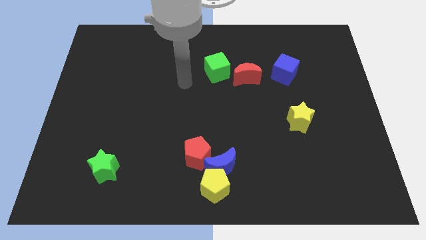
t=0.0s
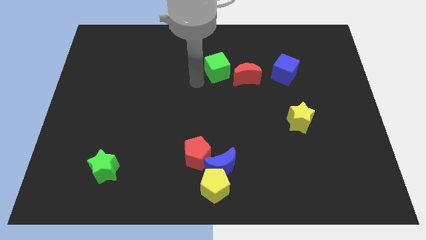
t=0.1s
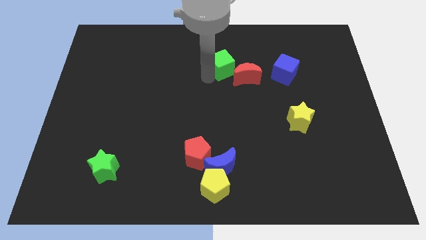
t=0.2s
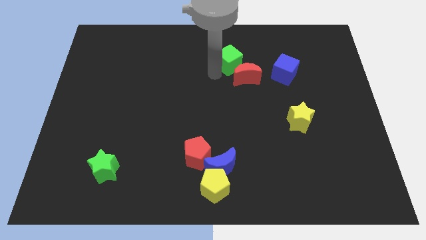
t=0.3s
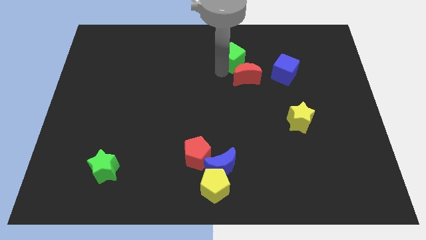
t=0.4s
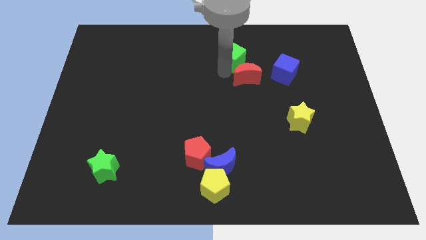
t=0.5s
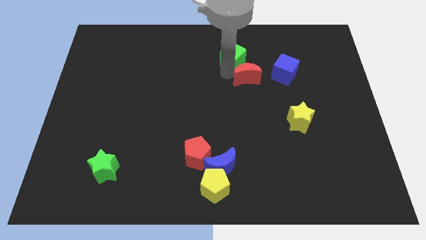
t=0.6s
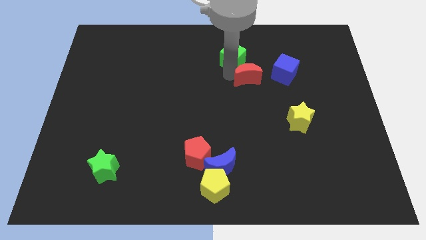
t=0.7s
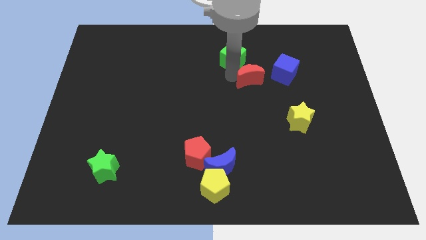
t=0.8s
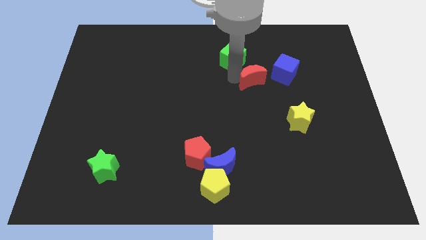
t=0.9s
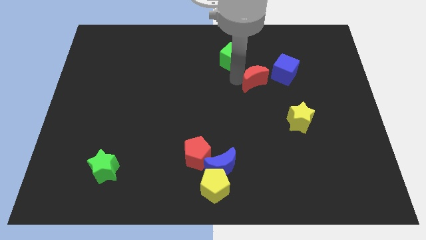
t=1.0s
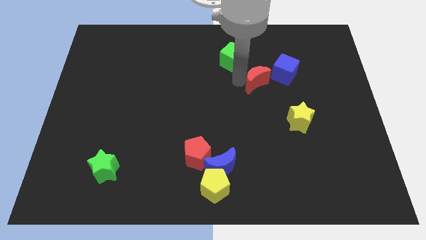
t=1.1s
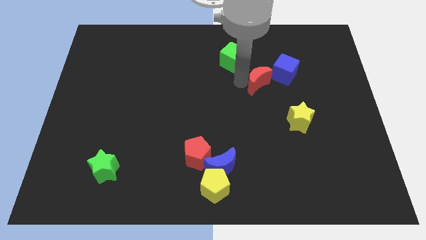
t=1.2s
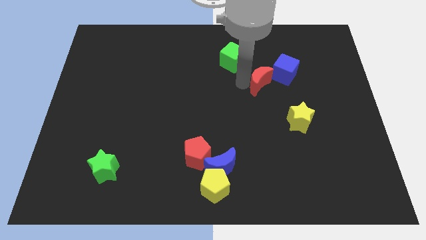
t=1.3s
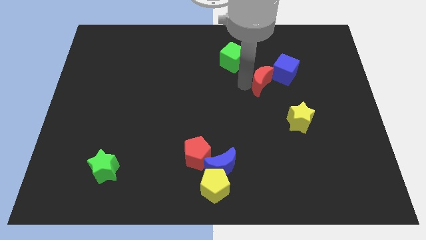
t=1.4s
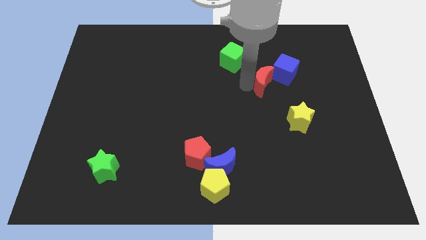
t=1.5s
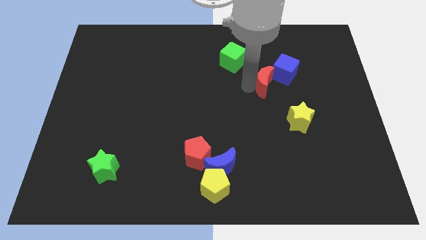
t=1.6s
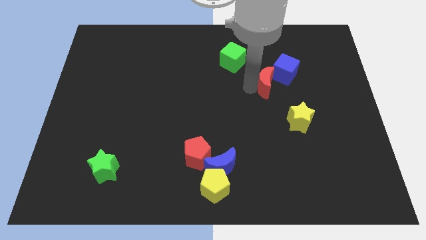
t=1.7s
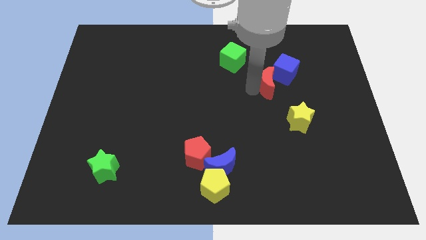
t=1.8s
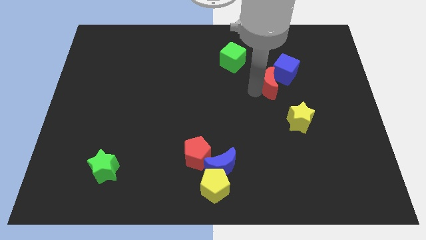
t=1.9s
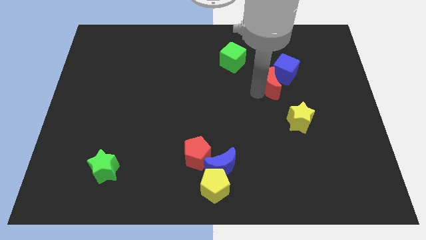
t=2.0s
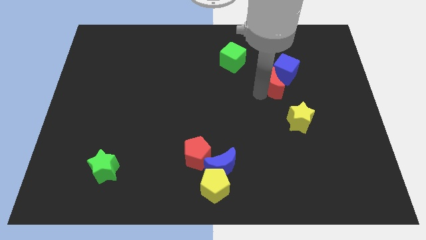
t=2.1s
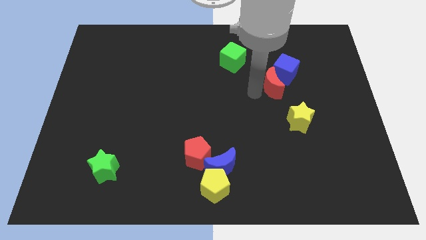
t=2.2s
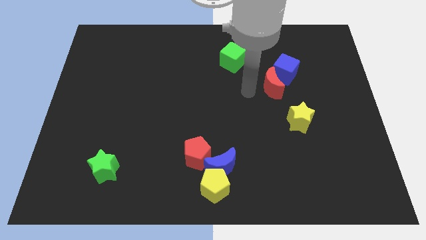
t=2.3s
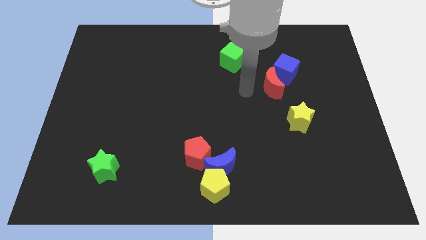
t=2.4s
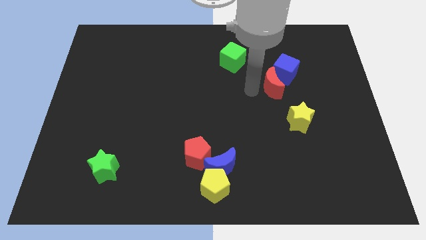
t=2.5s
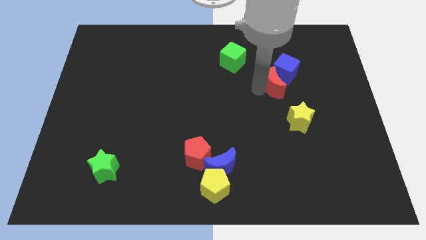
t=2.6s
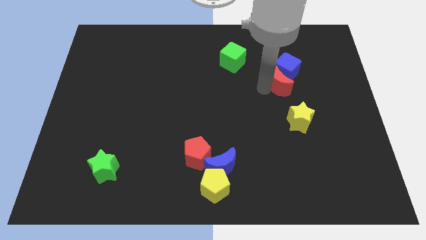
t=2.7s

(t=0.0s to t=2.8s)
slightly slide the red moon right

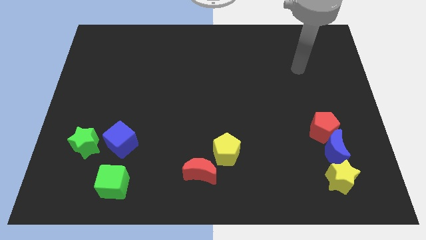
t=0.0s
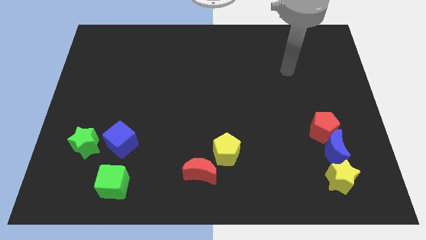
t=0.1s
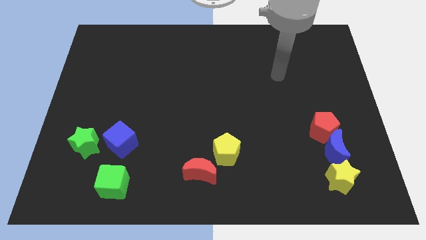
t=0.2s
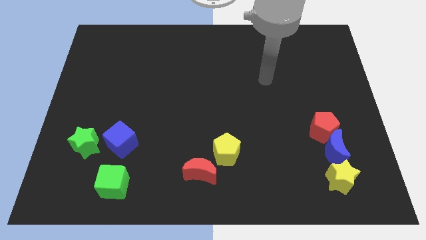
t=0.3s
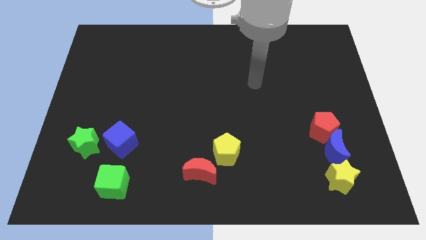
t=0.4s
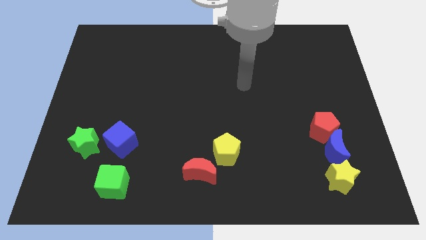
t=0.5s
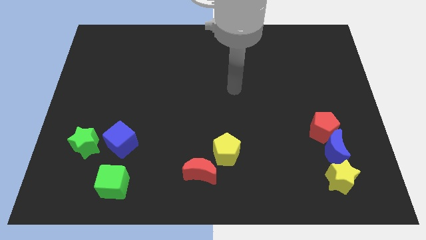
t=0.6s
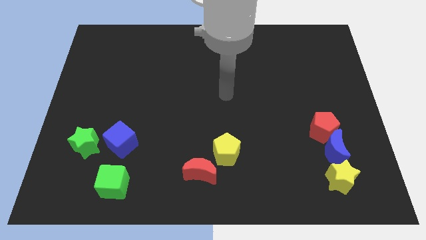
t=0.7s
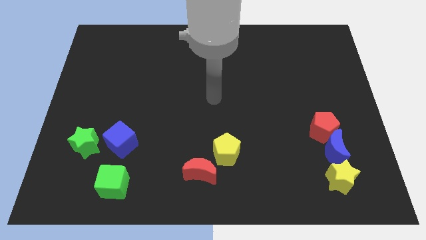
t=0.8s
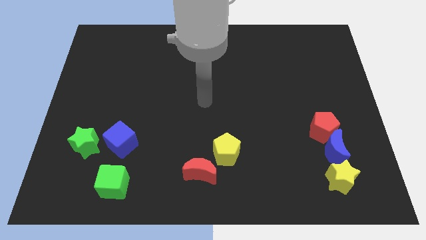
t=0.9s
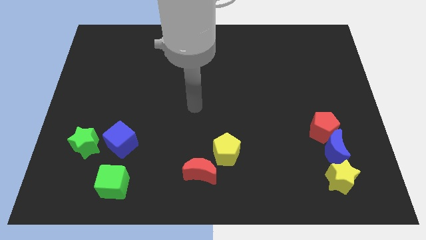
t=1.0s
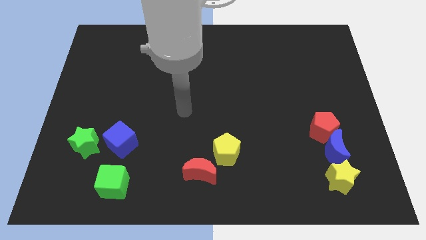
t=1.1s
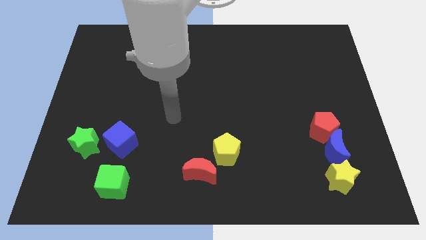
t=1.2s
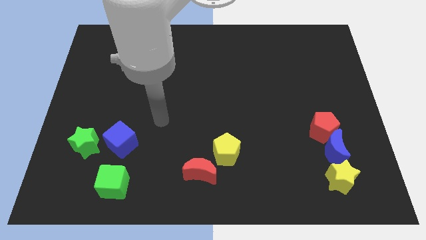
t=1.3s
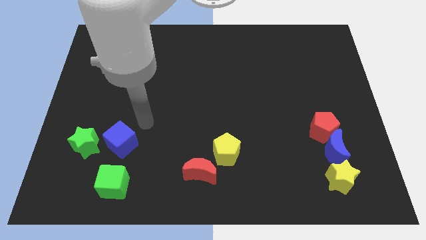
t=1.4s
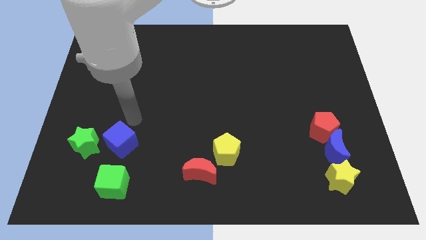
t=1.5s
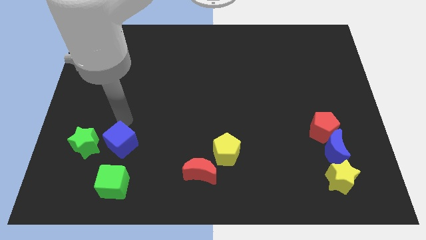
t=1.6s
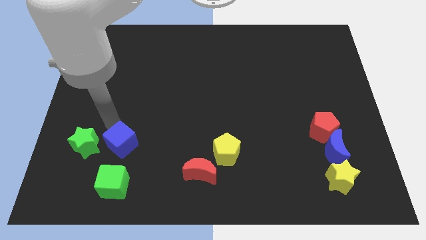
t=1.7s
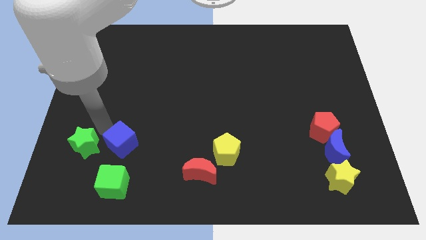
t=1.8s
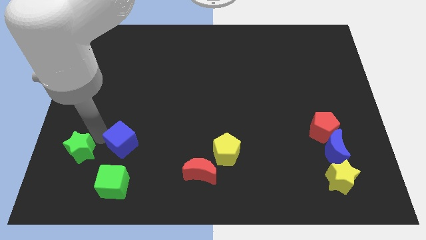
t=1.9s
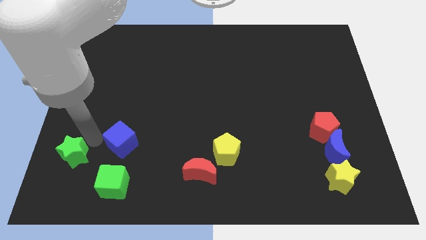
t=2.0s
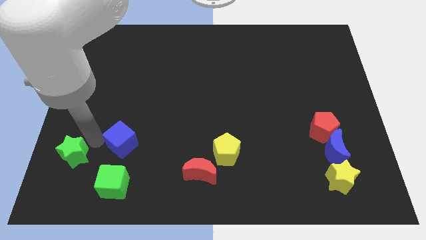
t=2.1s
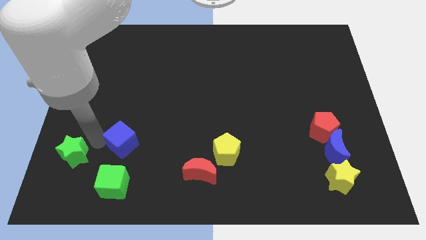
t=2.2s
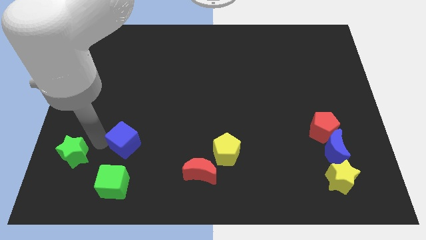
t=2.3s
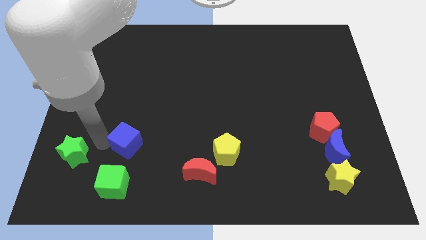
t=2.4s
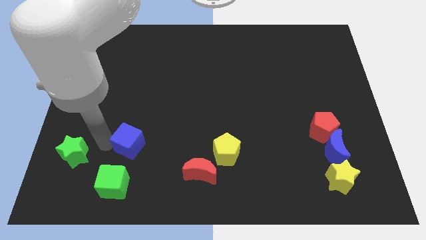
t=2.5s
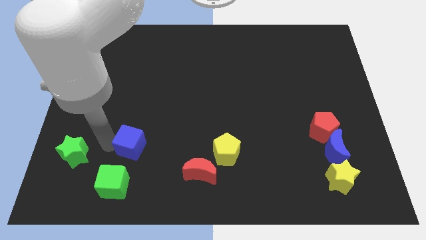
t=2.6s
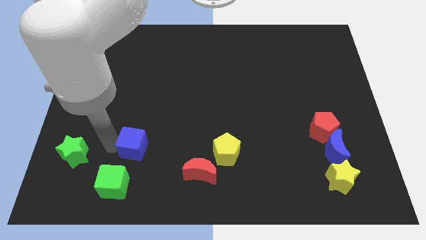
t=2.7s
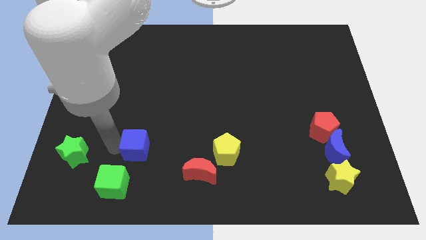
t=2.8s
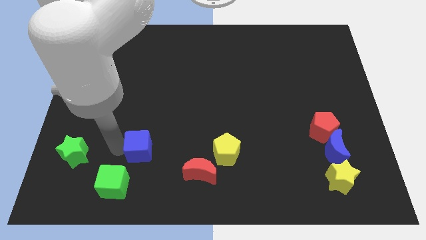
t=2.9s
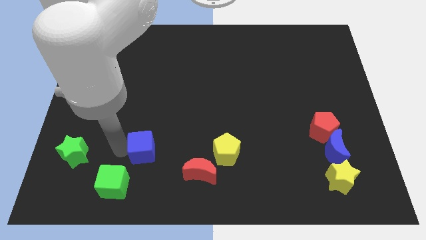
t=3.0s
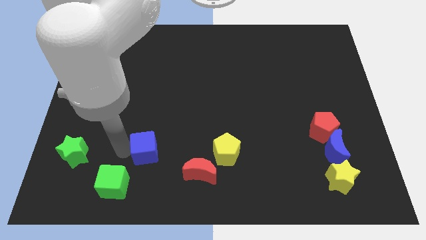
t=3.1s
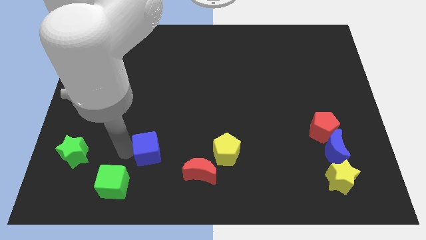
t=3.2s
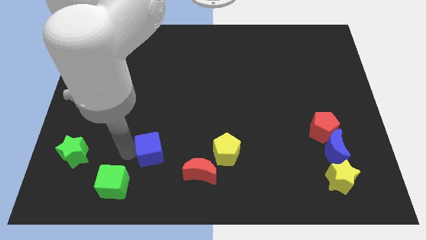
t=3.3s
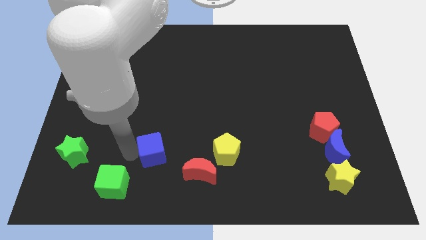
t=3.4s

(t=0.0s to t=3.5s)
move the blue cube to the right a bit

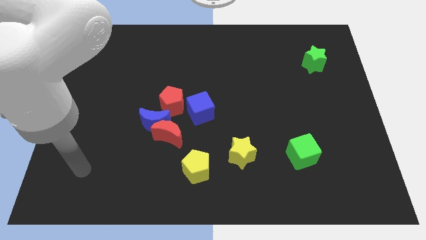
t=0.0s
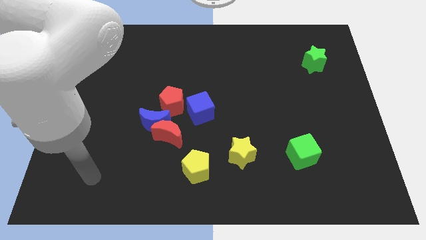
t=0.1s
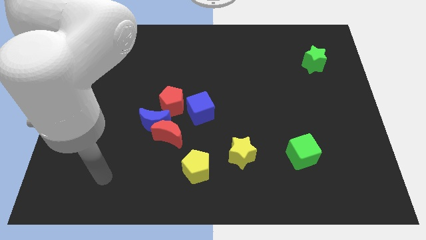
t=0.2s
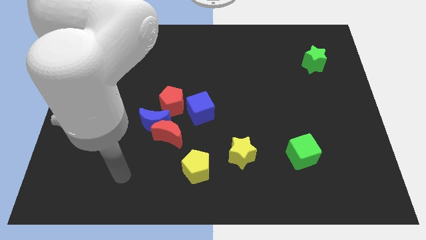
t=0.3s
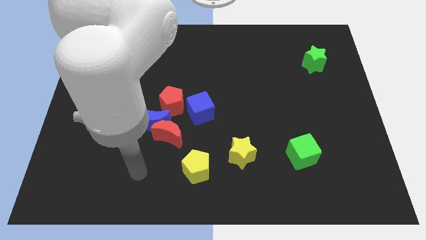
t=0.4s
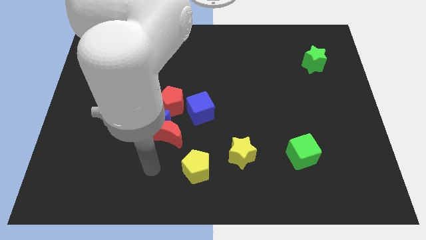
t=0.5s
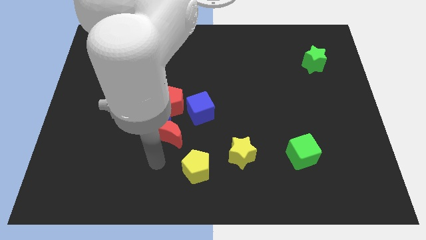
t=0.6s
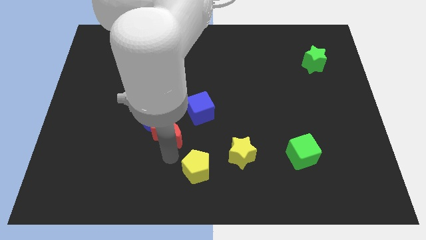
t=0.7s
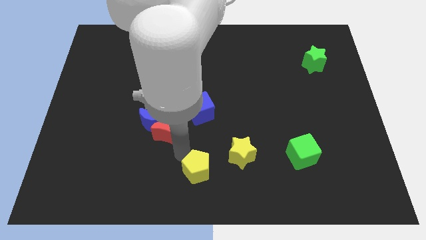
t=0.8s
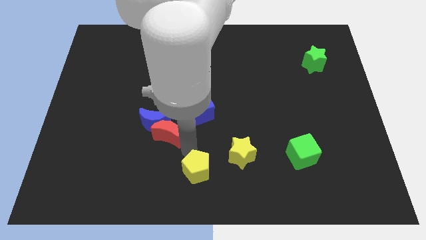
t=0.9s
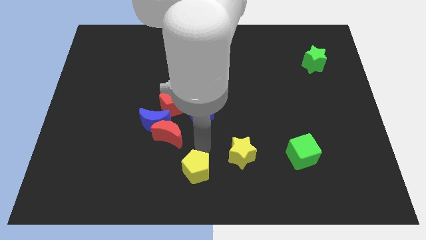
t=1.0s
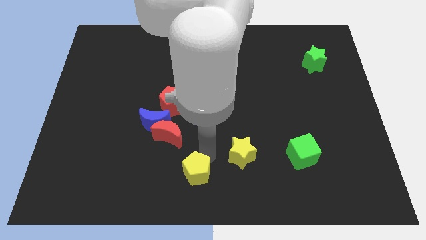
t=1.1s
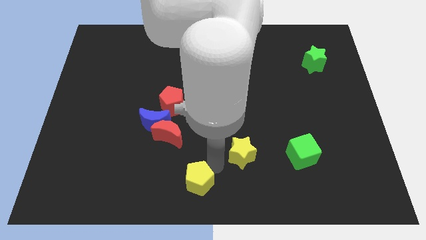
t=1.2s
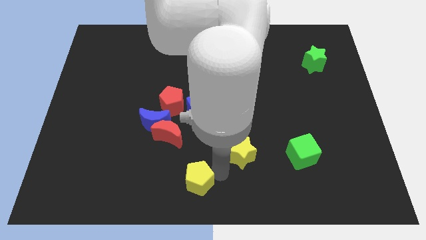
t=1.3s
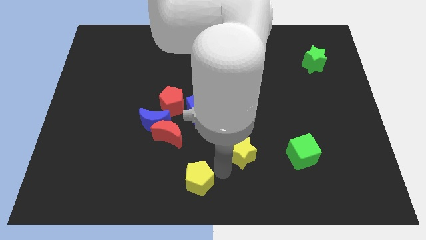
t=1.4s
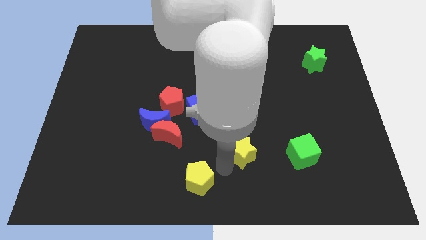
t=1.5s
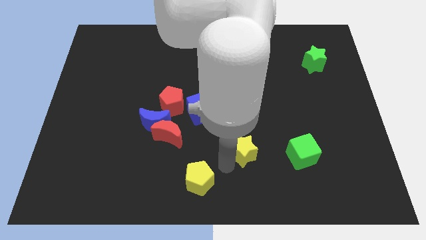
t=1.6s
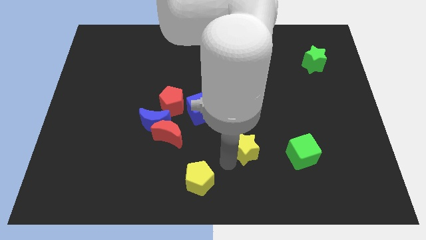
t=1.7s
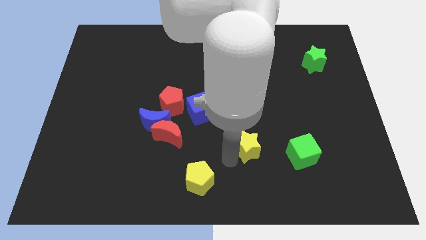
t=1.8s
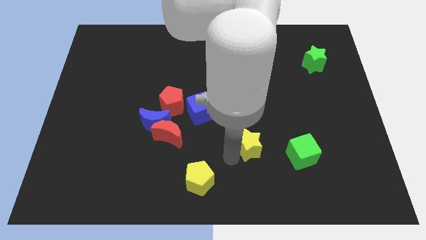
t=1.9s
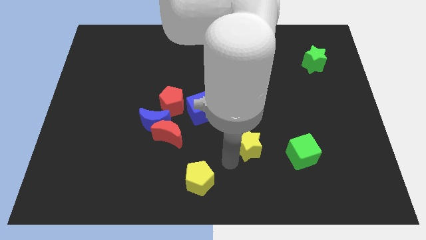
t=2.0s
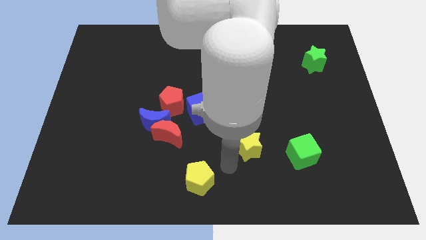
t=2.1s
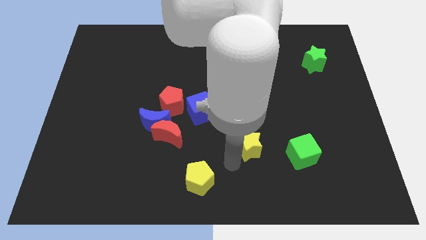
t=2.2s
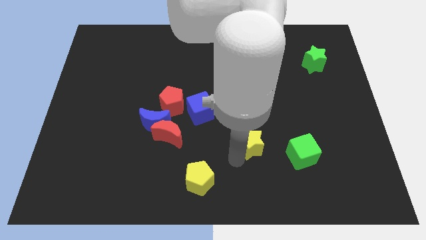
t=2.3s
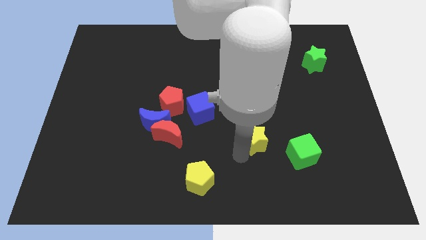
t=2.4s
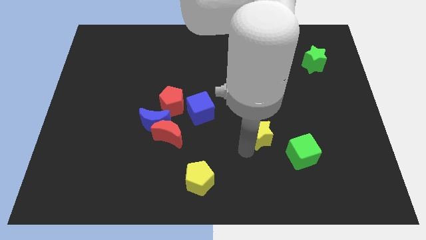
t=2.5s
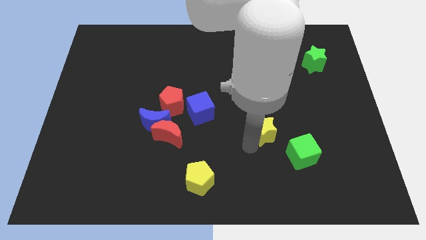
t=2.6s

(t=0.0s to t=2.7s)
move the yellow star up and then to the right a little
